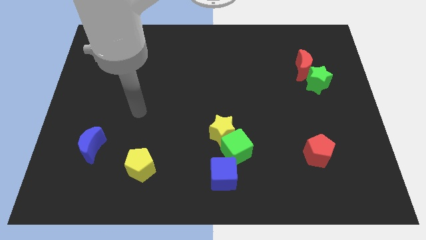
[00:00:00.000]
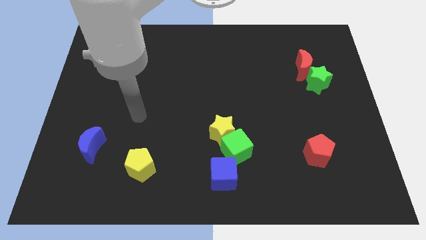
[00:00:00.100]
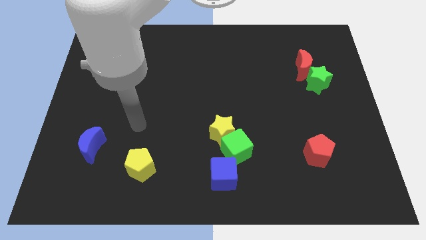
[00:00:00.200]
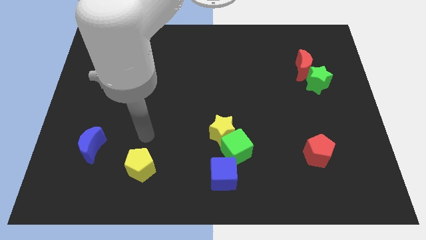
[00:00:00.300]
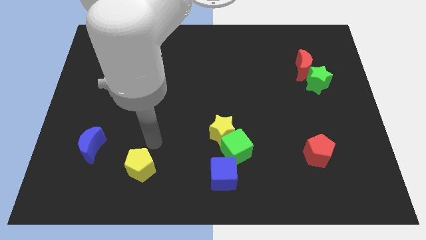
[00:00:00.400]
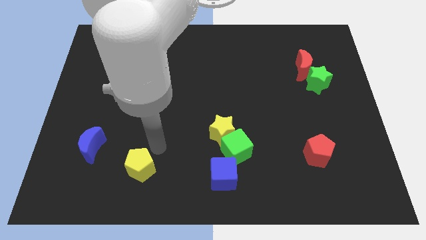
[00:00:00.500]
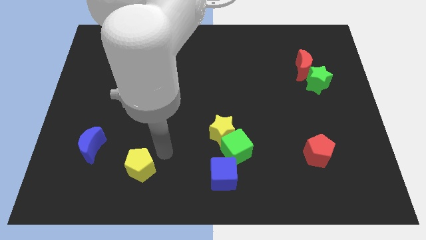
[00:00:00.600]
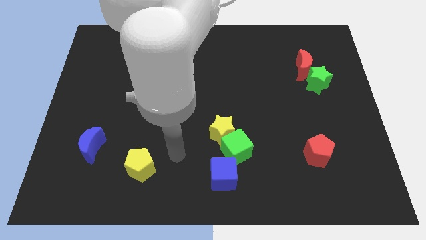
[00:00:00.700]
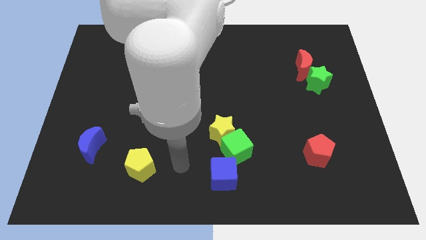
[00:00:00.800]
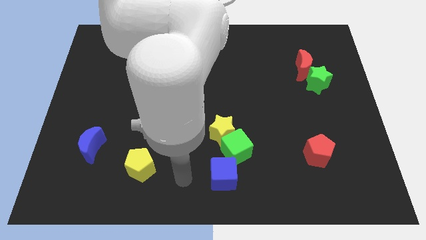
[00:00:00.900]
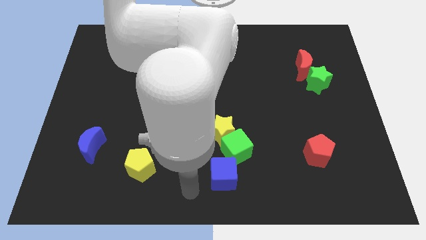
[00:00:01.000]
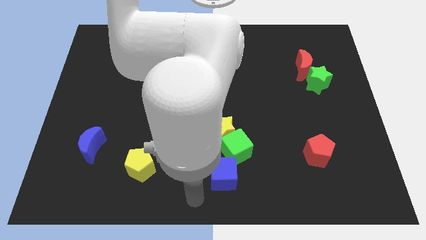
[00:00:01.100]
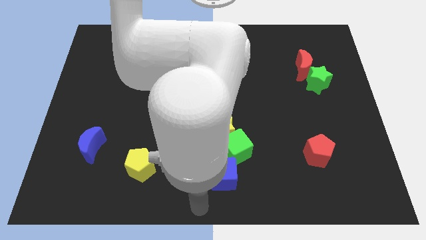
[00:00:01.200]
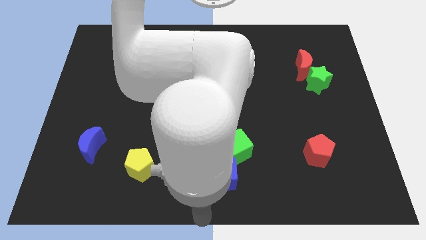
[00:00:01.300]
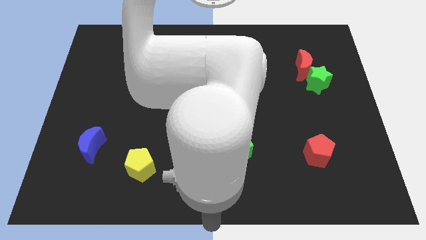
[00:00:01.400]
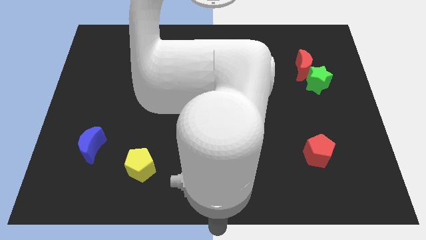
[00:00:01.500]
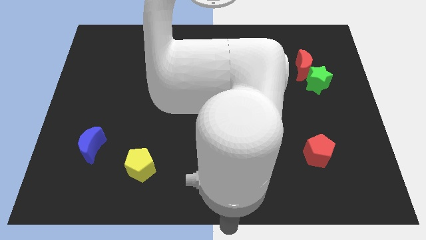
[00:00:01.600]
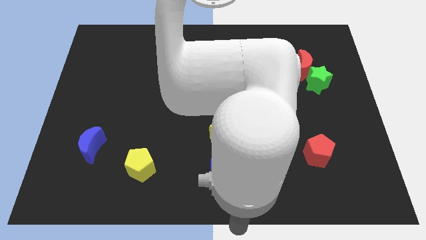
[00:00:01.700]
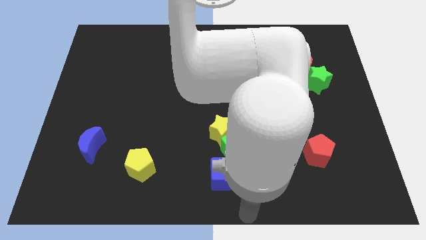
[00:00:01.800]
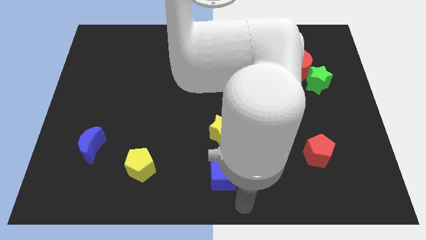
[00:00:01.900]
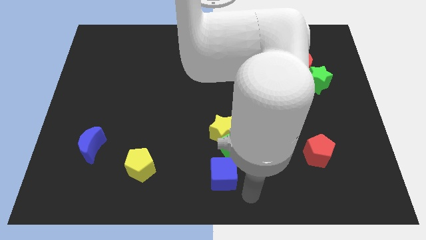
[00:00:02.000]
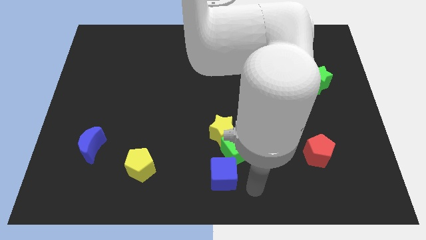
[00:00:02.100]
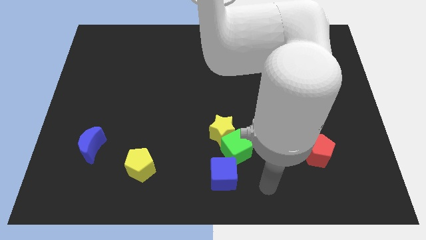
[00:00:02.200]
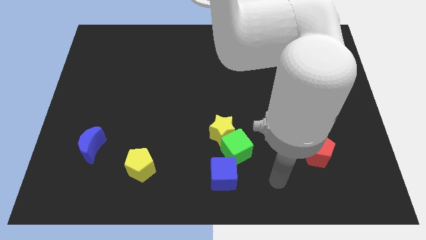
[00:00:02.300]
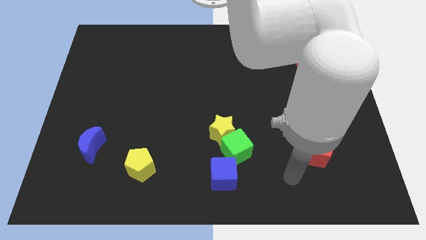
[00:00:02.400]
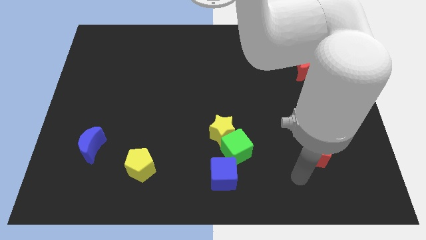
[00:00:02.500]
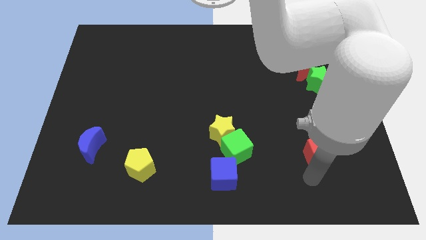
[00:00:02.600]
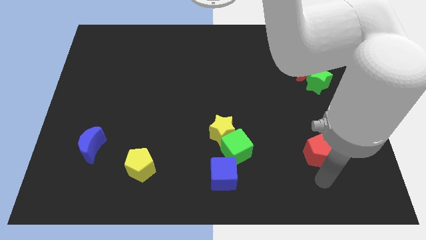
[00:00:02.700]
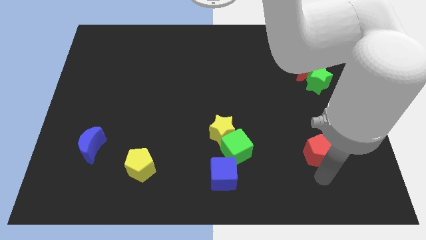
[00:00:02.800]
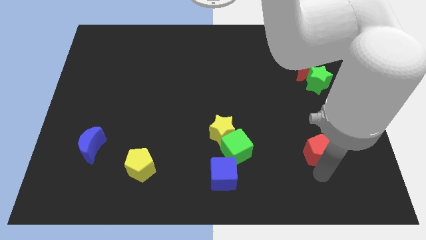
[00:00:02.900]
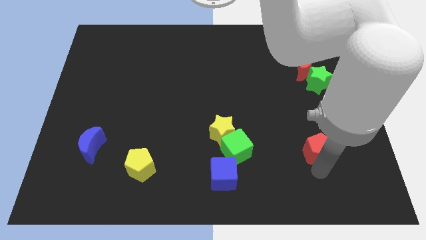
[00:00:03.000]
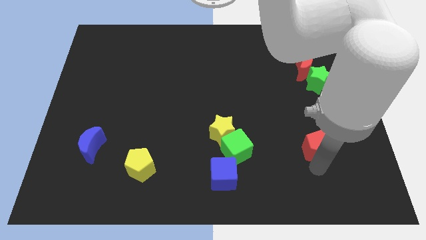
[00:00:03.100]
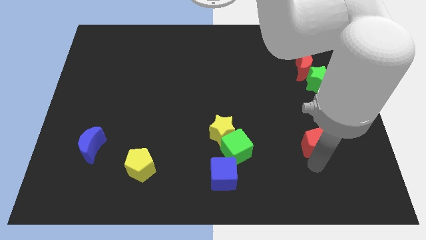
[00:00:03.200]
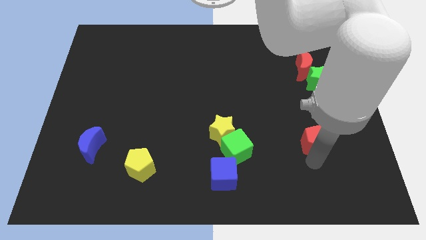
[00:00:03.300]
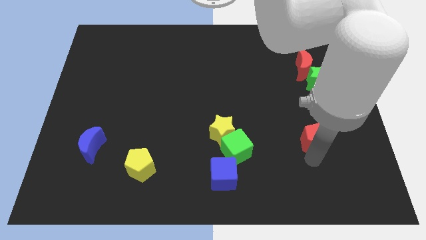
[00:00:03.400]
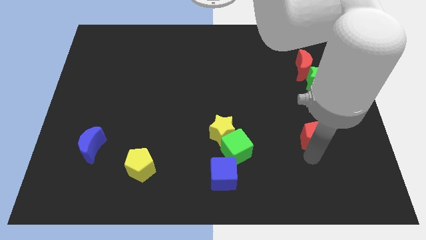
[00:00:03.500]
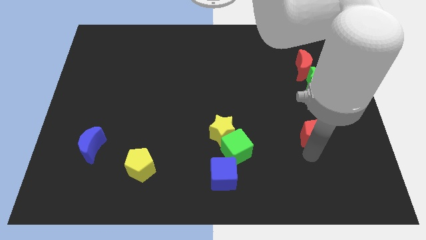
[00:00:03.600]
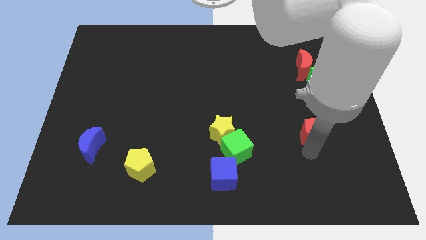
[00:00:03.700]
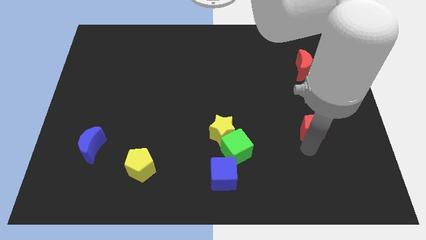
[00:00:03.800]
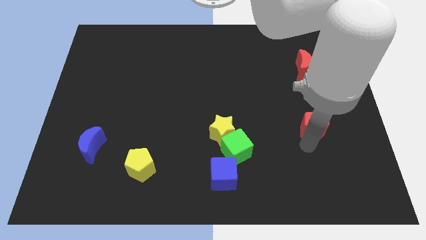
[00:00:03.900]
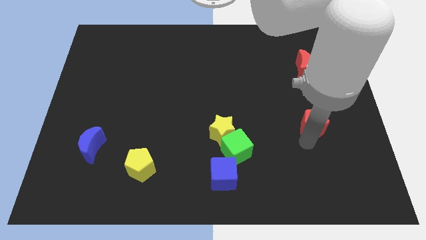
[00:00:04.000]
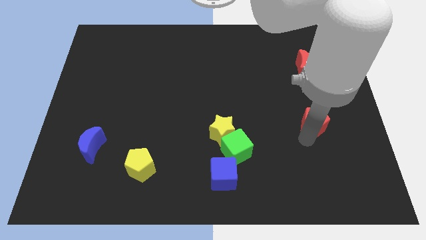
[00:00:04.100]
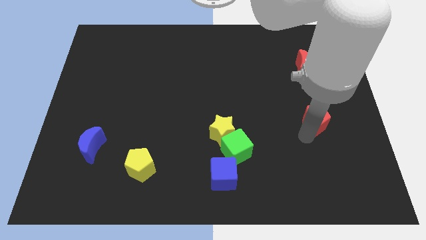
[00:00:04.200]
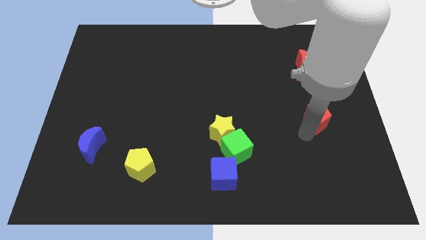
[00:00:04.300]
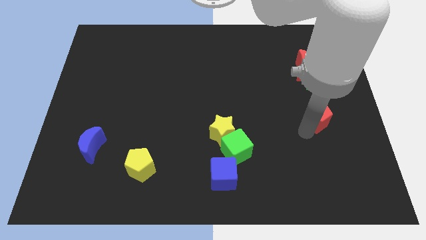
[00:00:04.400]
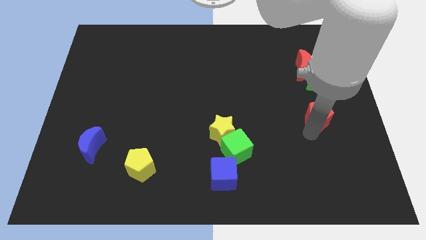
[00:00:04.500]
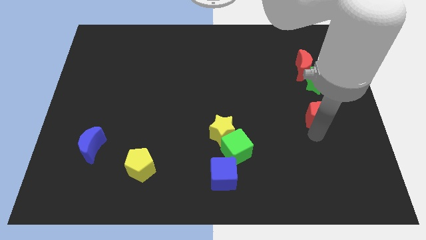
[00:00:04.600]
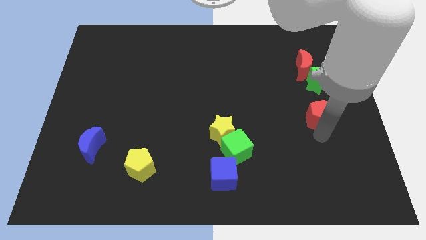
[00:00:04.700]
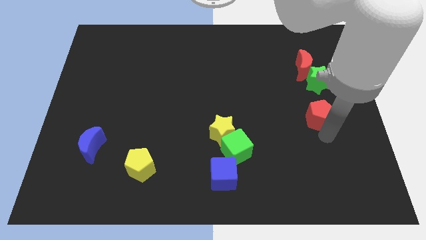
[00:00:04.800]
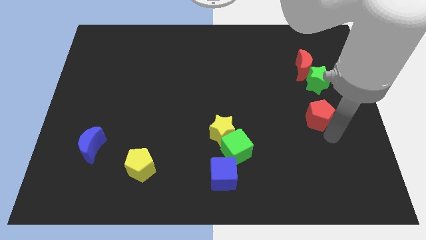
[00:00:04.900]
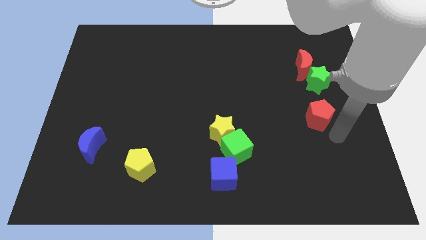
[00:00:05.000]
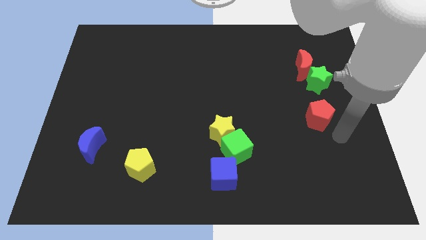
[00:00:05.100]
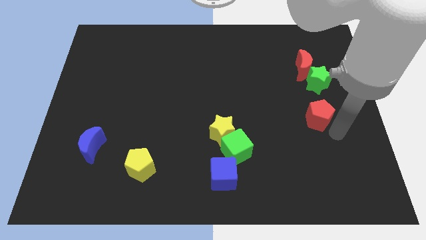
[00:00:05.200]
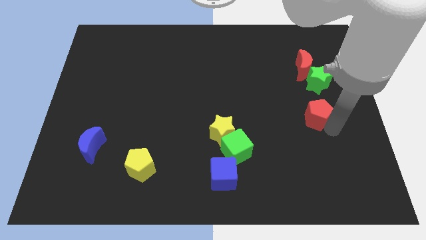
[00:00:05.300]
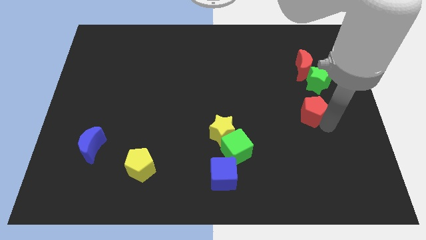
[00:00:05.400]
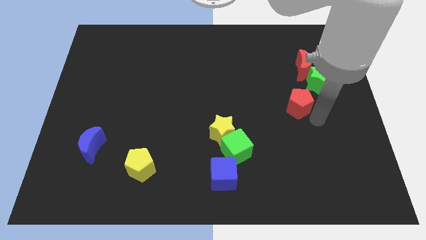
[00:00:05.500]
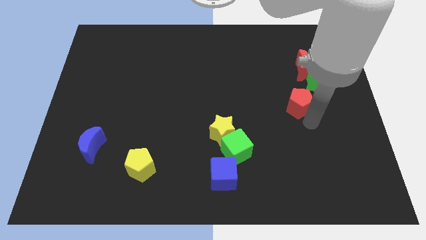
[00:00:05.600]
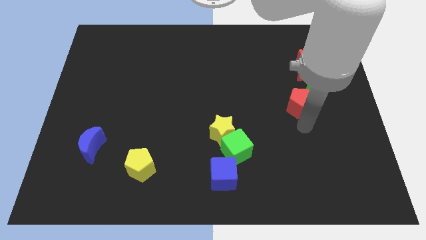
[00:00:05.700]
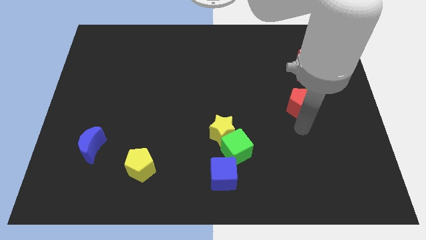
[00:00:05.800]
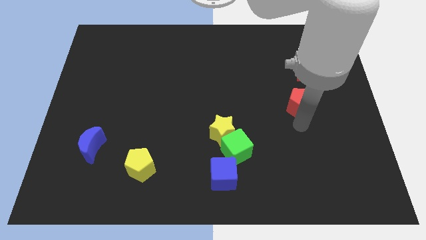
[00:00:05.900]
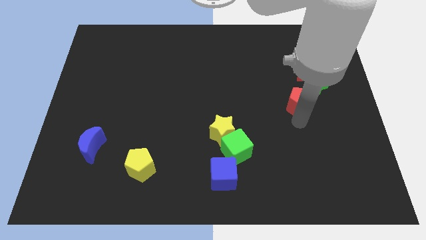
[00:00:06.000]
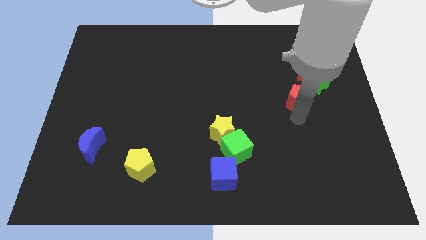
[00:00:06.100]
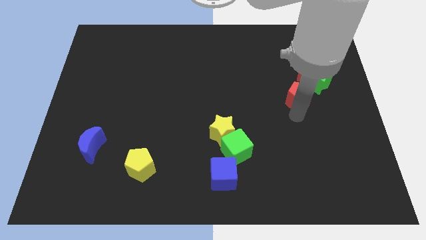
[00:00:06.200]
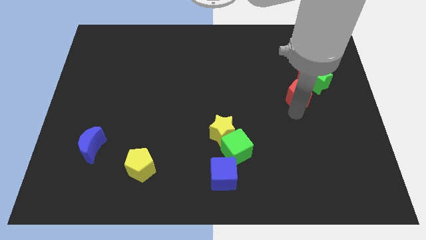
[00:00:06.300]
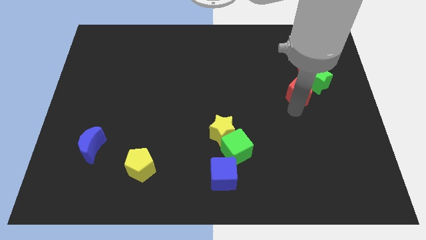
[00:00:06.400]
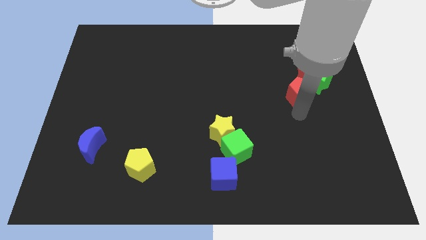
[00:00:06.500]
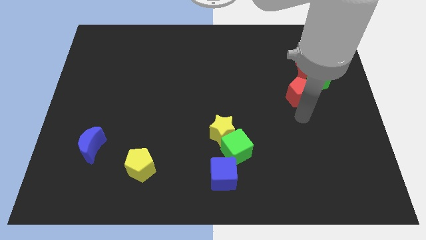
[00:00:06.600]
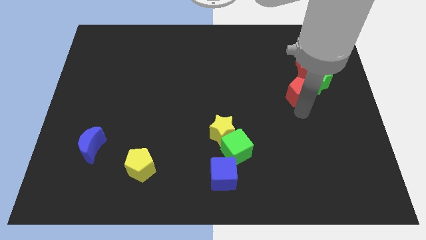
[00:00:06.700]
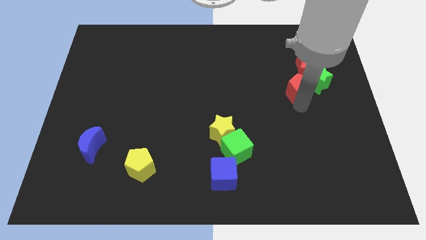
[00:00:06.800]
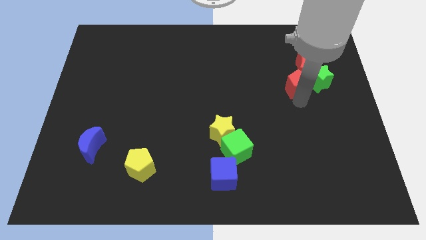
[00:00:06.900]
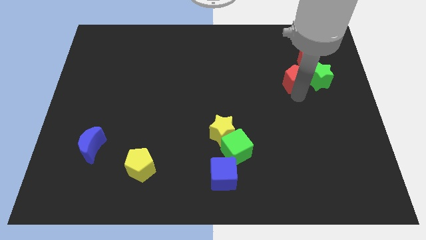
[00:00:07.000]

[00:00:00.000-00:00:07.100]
slide the red pentagon close to the red moon
